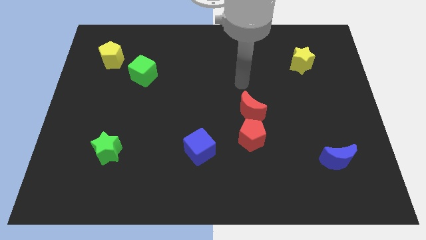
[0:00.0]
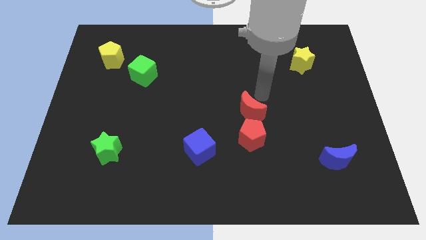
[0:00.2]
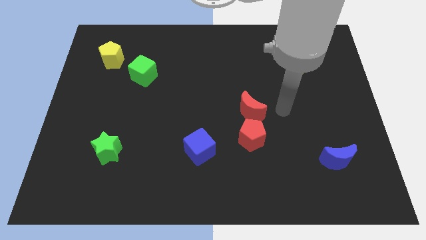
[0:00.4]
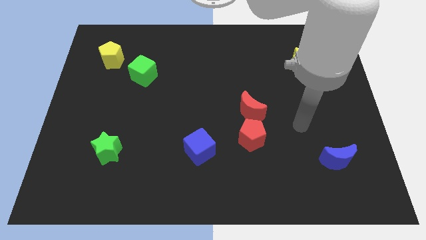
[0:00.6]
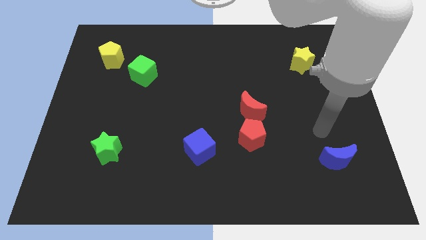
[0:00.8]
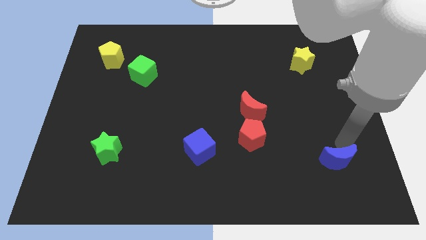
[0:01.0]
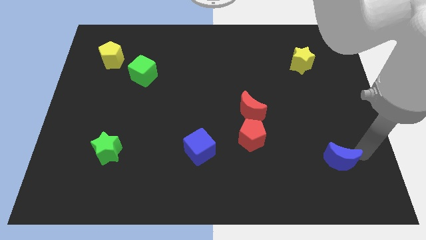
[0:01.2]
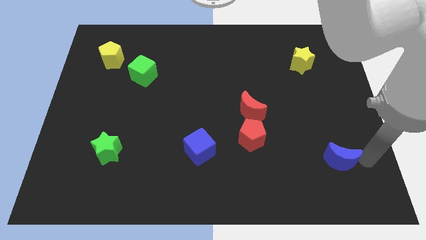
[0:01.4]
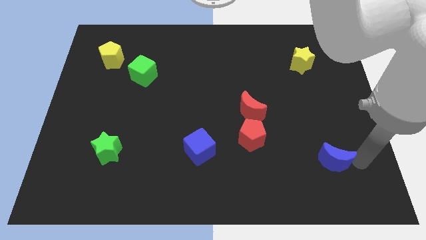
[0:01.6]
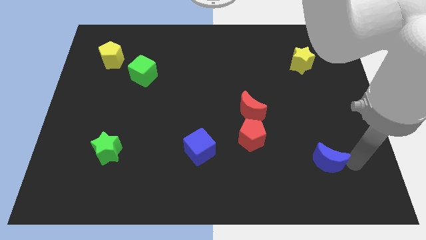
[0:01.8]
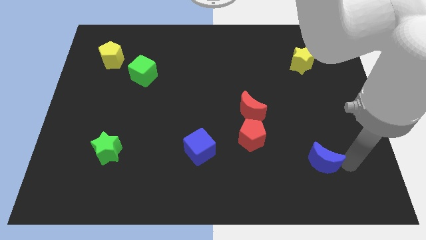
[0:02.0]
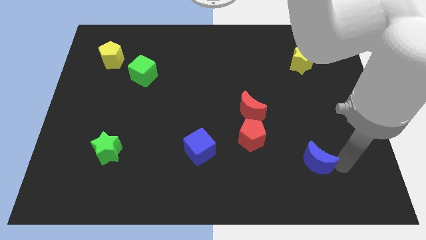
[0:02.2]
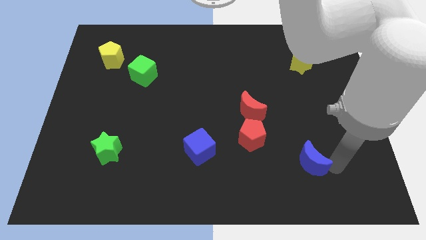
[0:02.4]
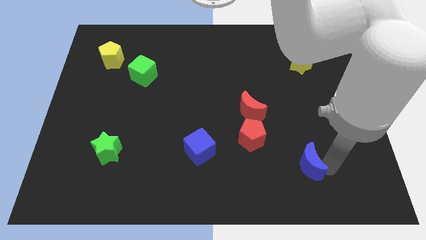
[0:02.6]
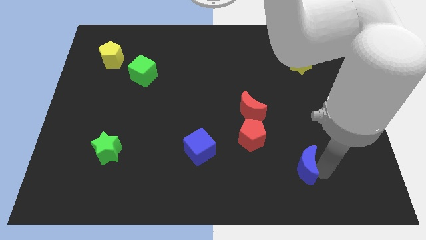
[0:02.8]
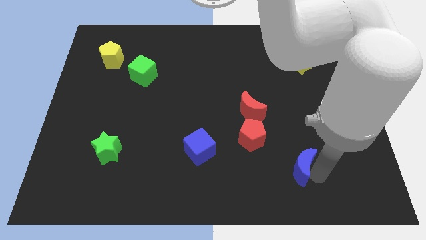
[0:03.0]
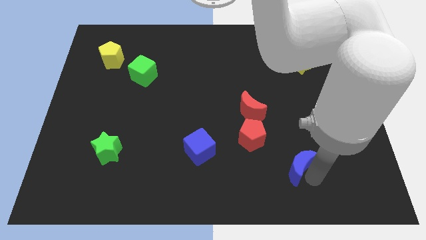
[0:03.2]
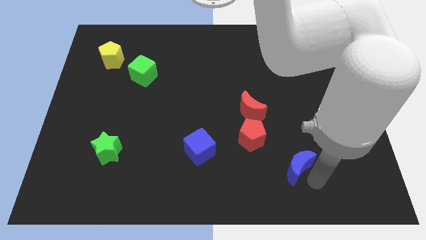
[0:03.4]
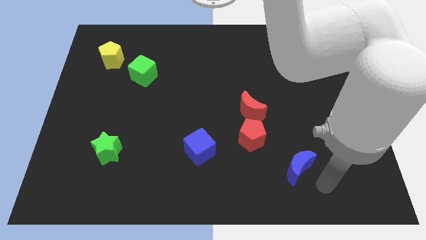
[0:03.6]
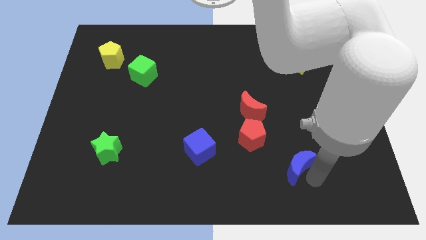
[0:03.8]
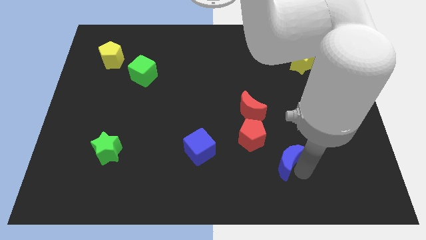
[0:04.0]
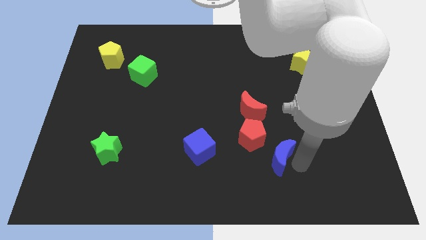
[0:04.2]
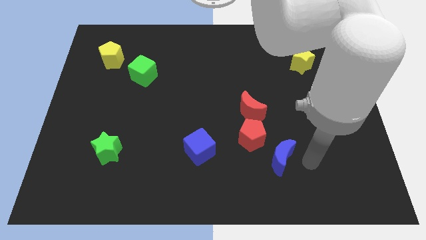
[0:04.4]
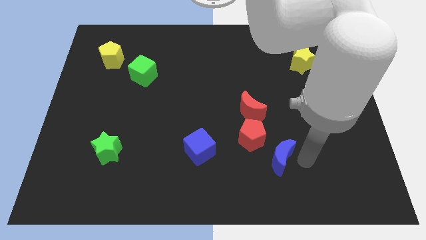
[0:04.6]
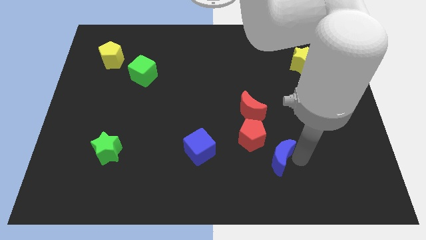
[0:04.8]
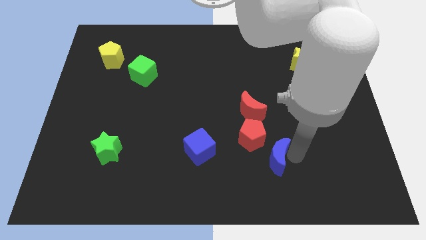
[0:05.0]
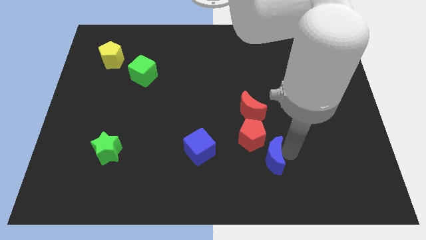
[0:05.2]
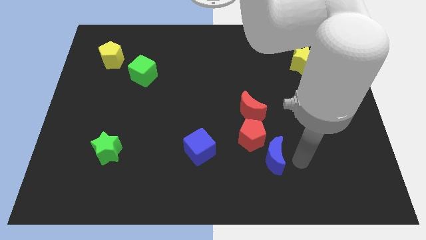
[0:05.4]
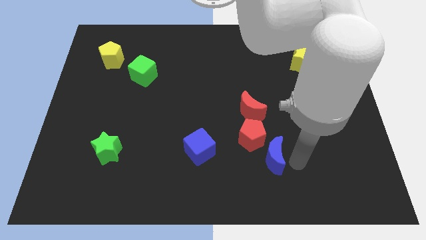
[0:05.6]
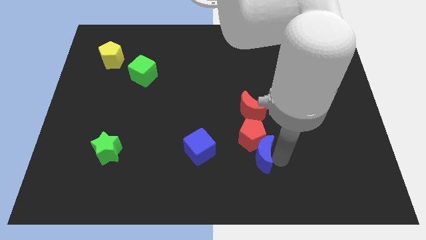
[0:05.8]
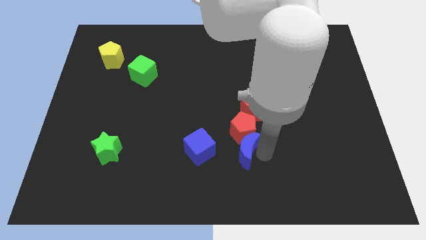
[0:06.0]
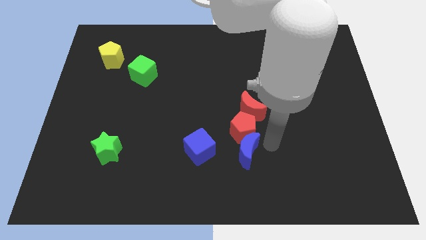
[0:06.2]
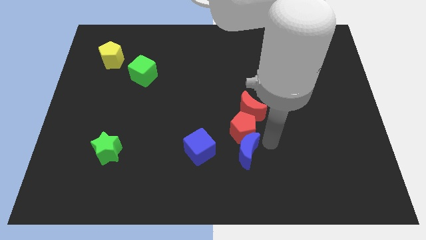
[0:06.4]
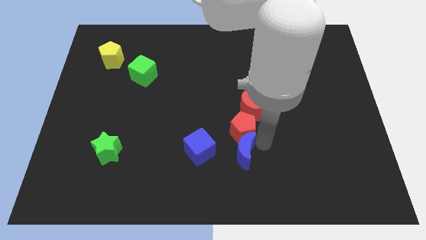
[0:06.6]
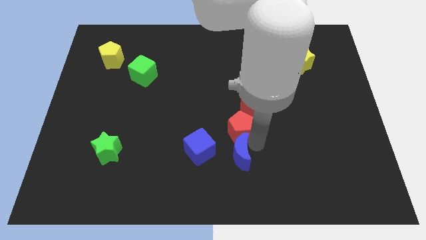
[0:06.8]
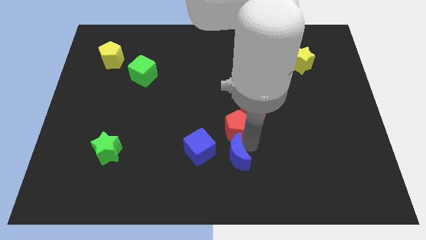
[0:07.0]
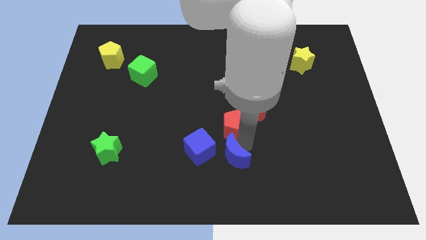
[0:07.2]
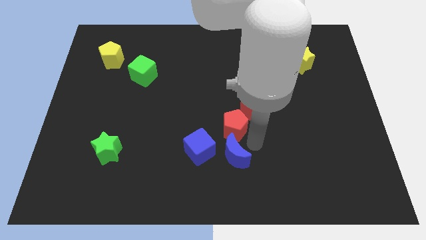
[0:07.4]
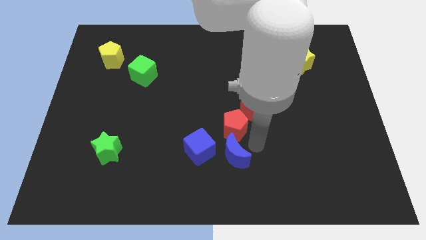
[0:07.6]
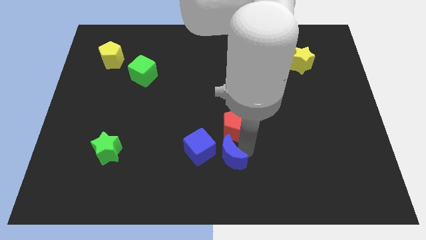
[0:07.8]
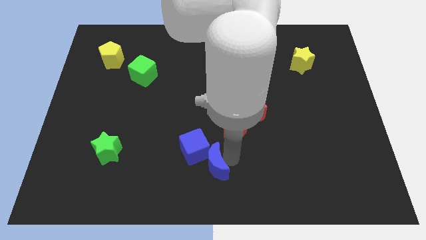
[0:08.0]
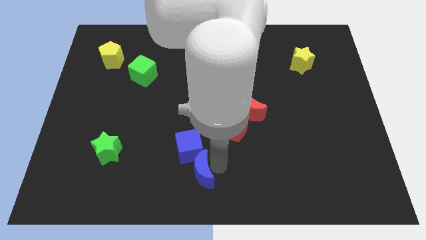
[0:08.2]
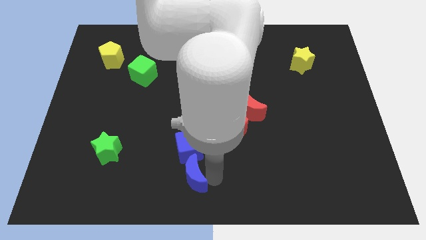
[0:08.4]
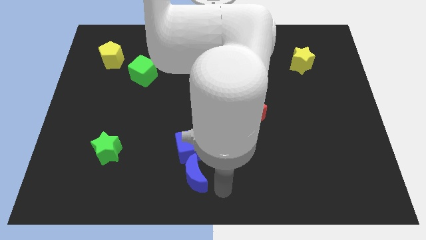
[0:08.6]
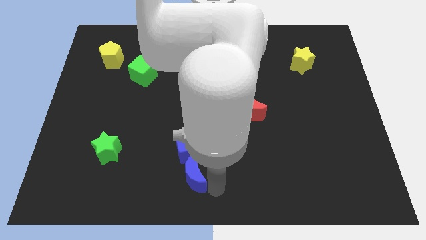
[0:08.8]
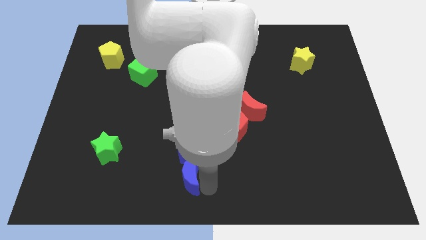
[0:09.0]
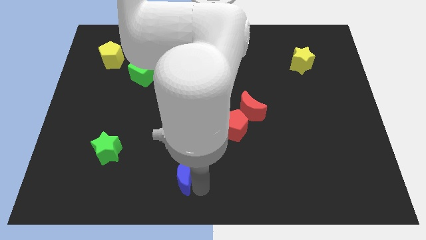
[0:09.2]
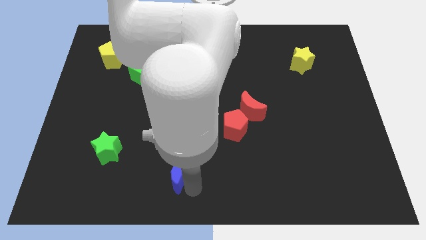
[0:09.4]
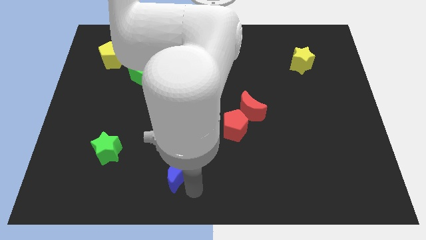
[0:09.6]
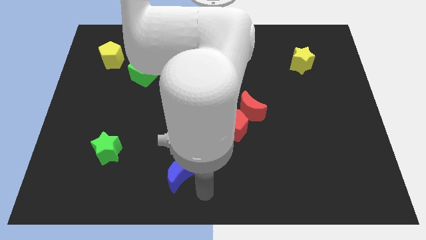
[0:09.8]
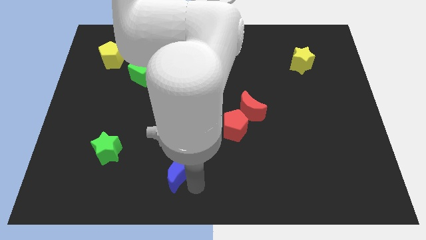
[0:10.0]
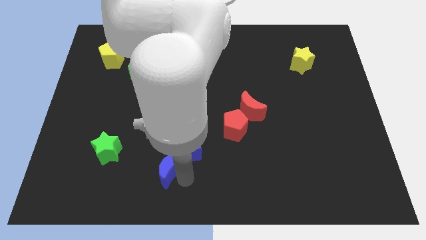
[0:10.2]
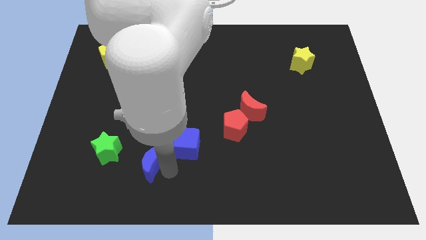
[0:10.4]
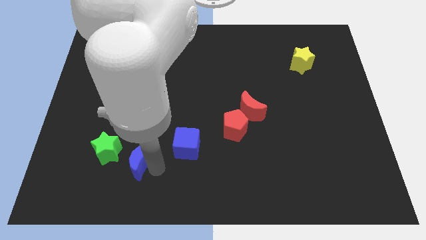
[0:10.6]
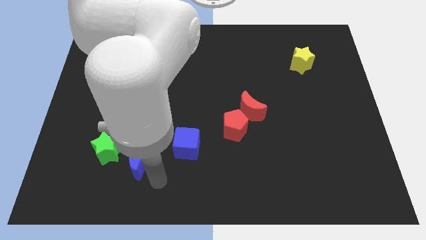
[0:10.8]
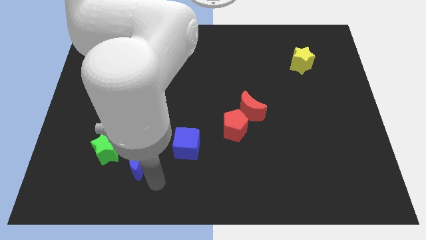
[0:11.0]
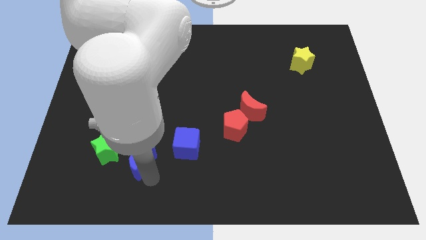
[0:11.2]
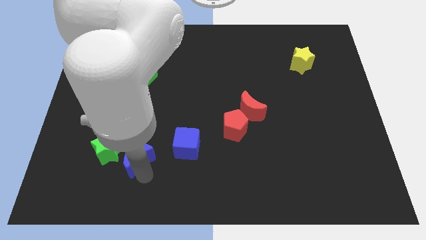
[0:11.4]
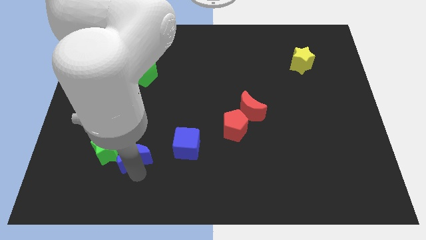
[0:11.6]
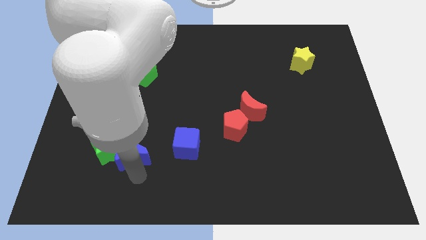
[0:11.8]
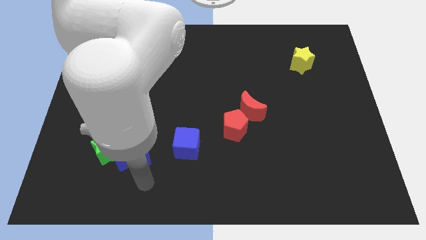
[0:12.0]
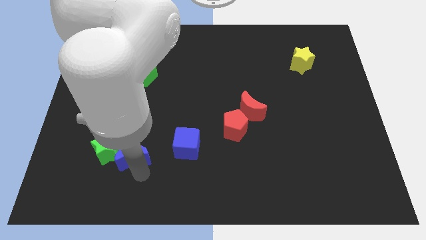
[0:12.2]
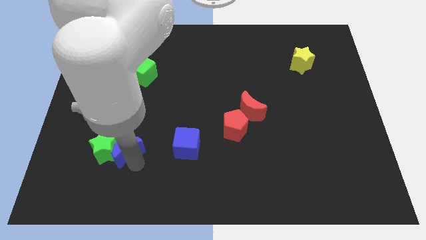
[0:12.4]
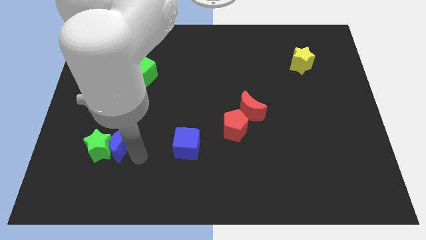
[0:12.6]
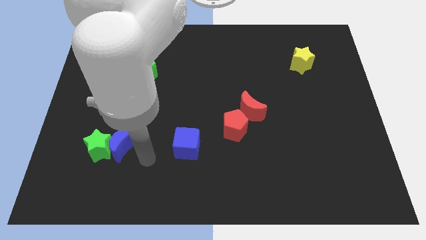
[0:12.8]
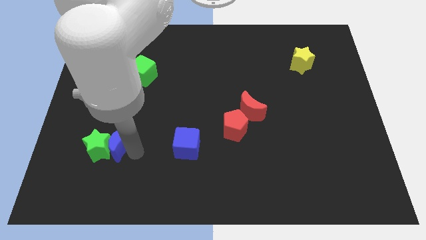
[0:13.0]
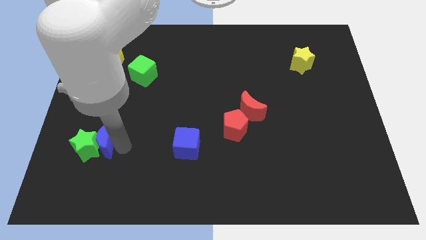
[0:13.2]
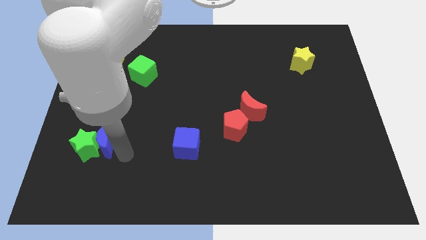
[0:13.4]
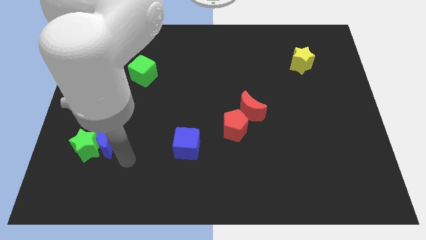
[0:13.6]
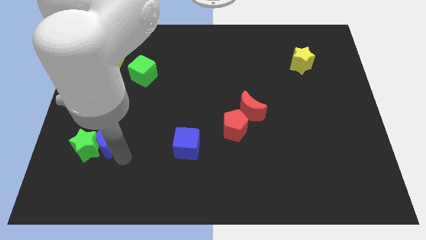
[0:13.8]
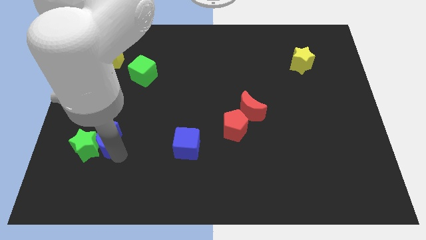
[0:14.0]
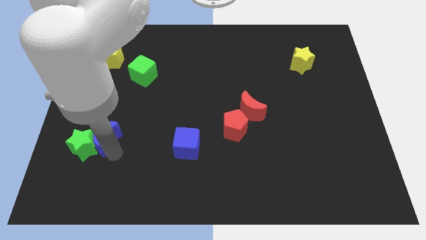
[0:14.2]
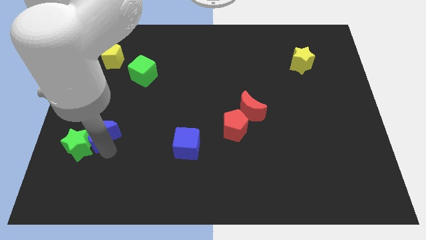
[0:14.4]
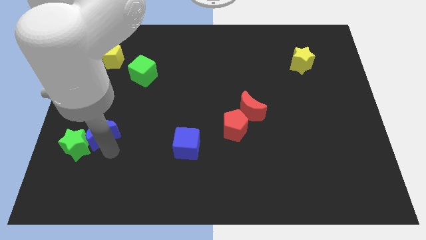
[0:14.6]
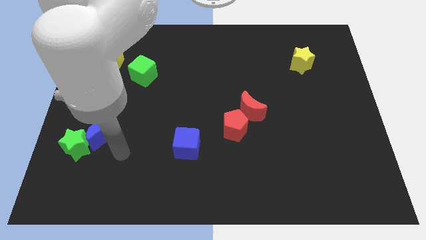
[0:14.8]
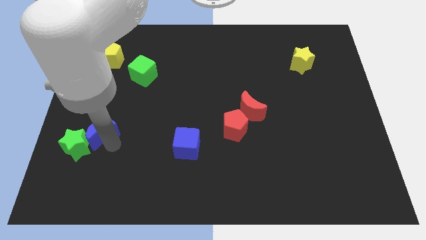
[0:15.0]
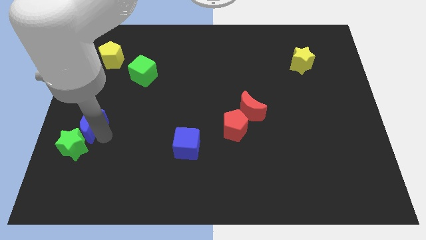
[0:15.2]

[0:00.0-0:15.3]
push the blue moon to the left side of the board
